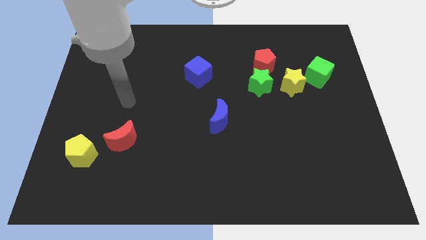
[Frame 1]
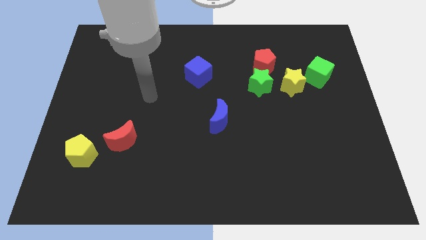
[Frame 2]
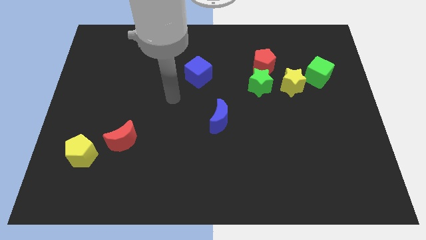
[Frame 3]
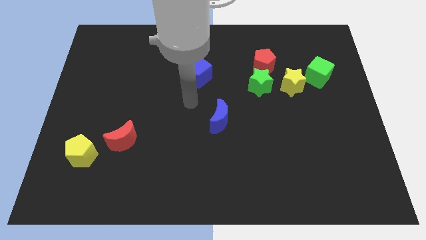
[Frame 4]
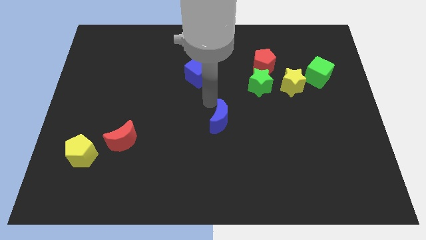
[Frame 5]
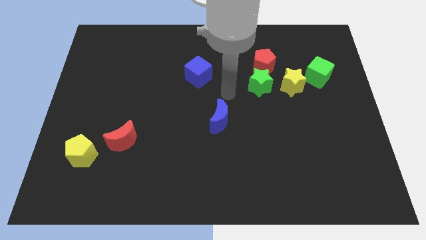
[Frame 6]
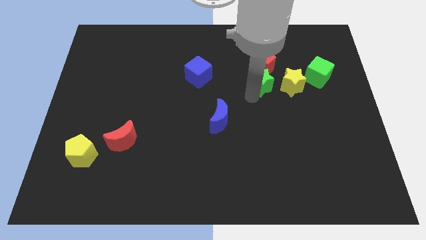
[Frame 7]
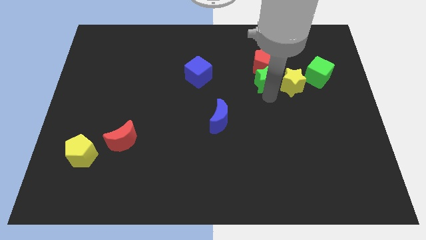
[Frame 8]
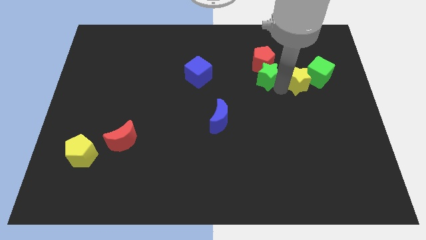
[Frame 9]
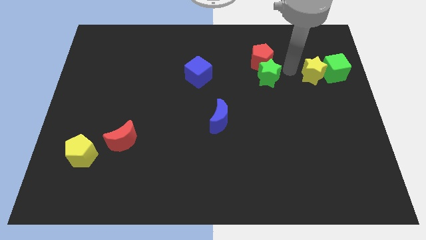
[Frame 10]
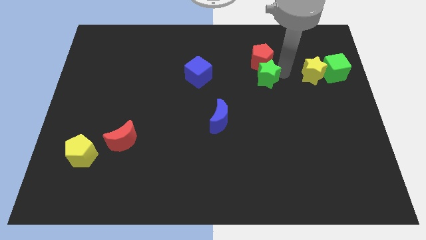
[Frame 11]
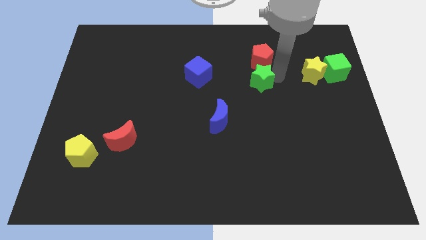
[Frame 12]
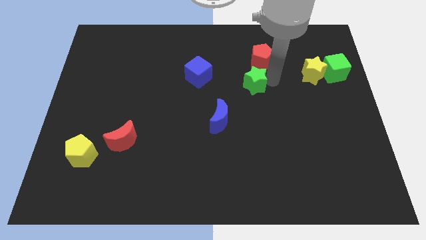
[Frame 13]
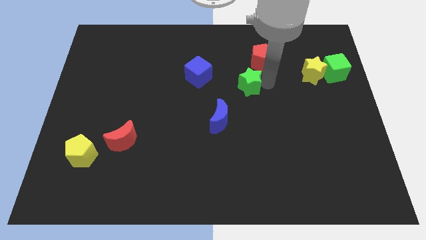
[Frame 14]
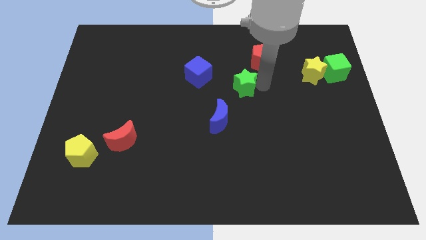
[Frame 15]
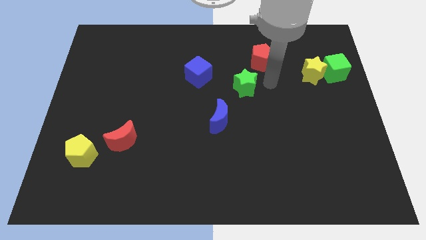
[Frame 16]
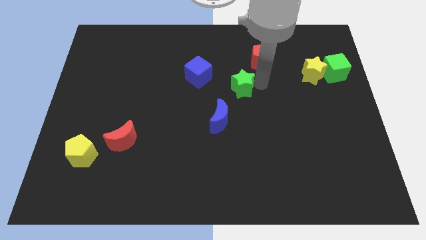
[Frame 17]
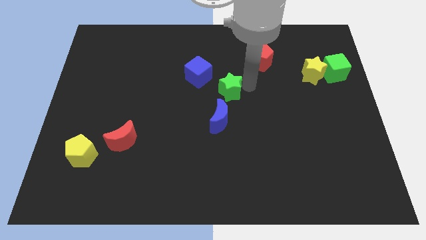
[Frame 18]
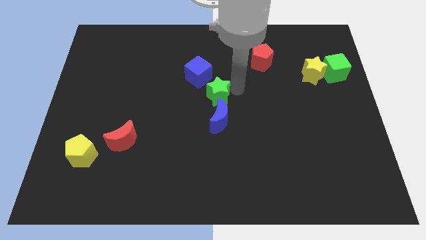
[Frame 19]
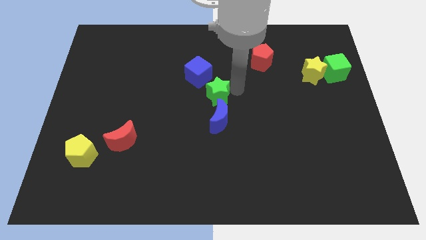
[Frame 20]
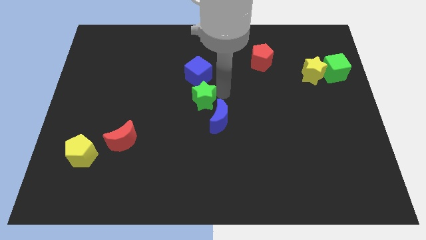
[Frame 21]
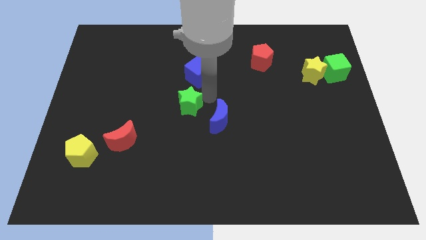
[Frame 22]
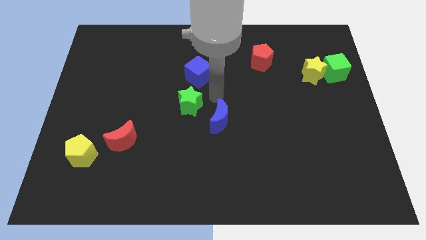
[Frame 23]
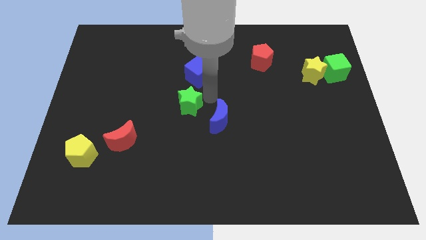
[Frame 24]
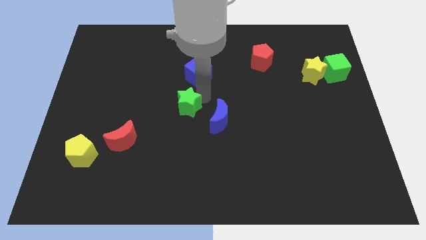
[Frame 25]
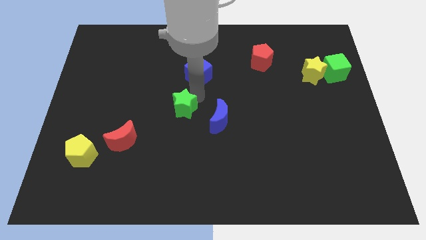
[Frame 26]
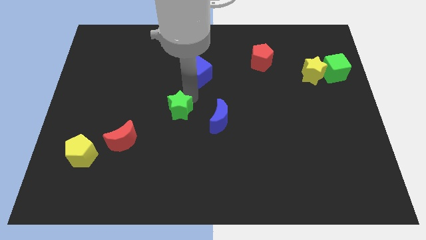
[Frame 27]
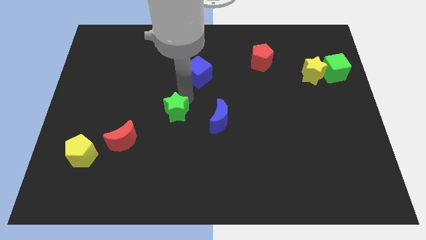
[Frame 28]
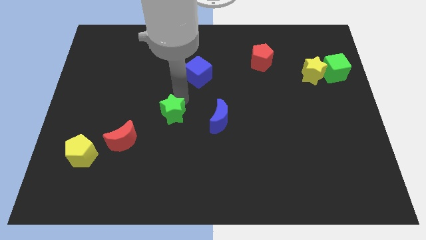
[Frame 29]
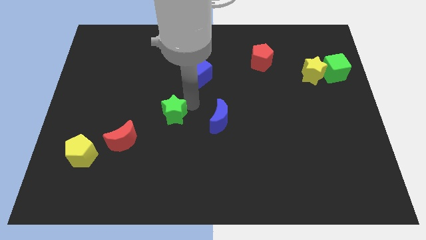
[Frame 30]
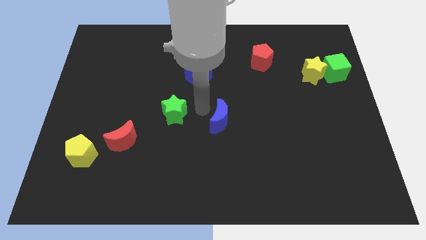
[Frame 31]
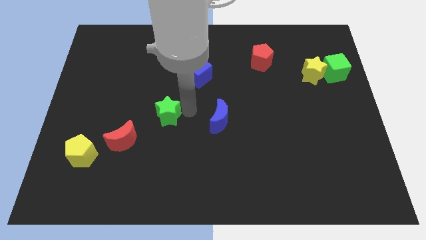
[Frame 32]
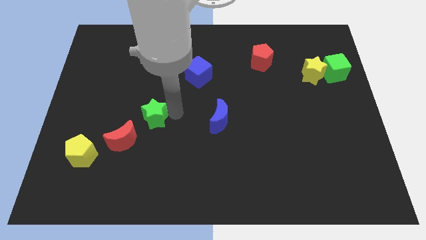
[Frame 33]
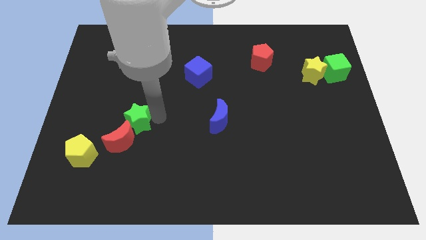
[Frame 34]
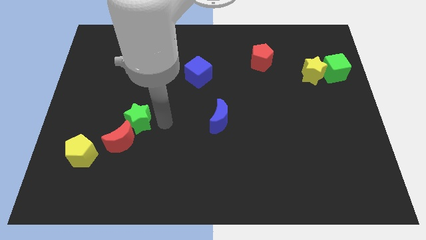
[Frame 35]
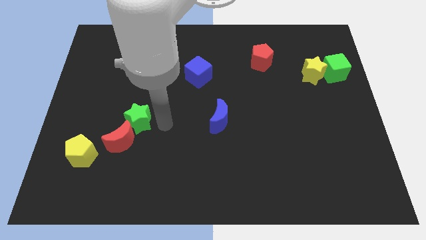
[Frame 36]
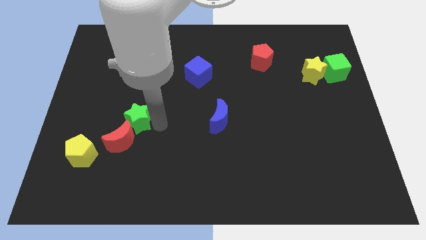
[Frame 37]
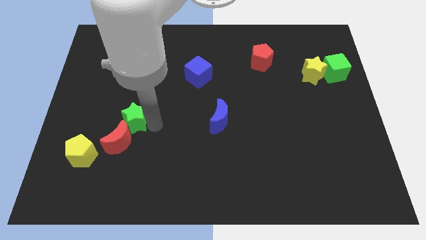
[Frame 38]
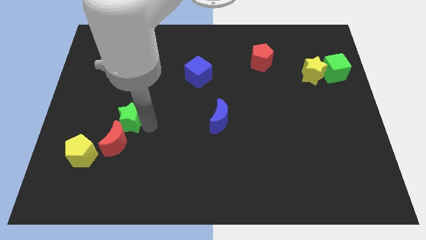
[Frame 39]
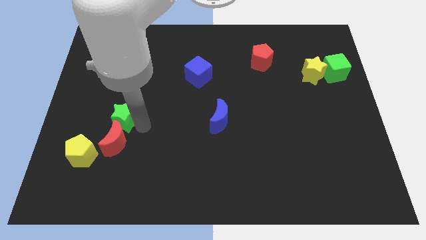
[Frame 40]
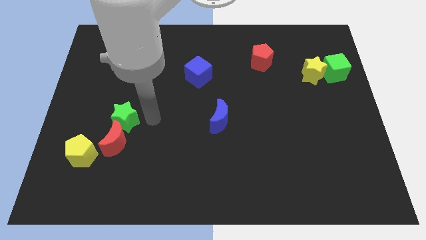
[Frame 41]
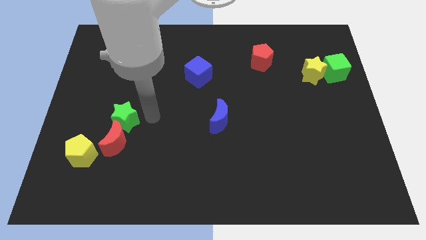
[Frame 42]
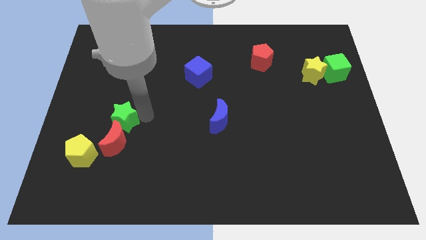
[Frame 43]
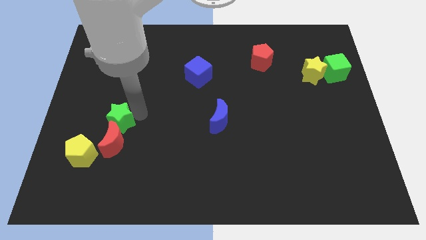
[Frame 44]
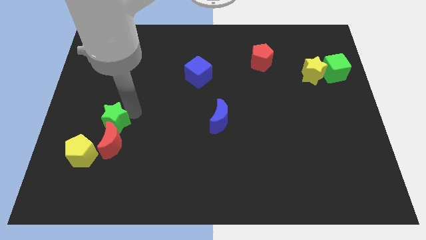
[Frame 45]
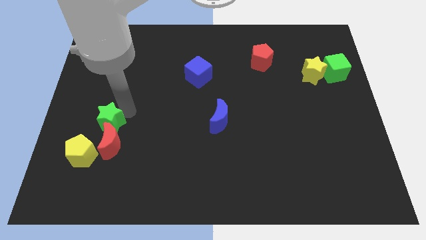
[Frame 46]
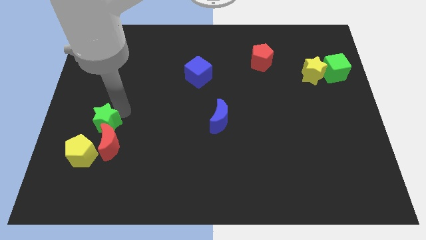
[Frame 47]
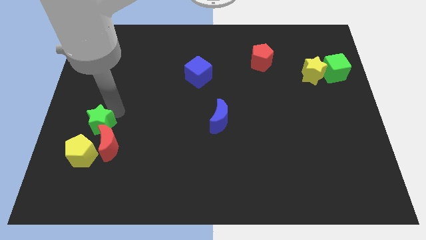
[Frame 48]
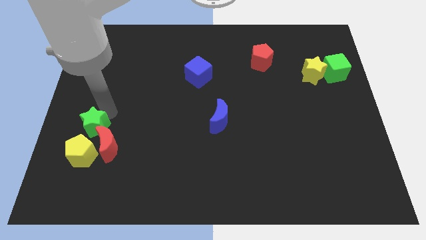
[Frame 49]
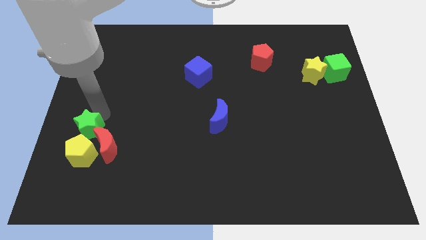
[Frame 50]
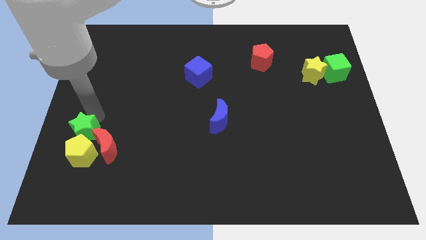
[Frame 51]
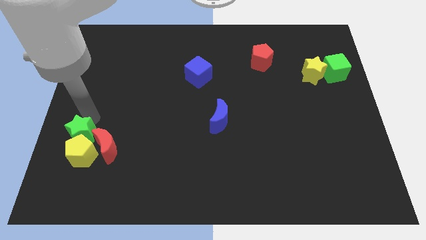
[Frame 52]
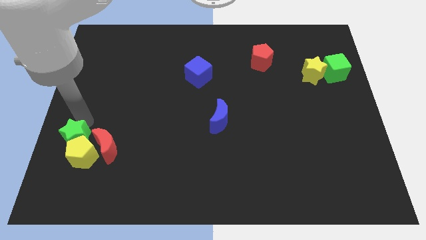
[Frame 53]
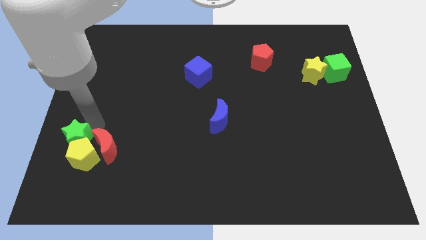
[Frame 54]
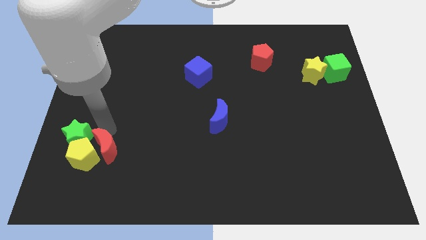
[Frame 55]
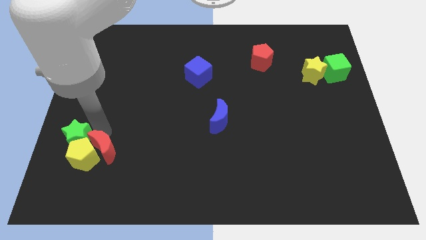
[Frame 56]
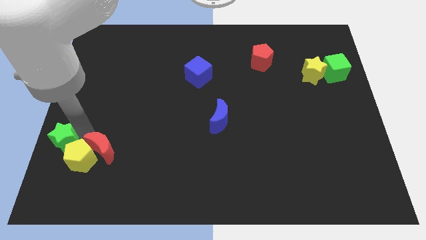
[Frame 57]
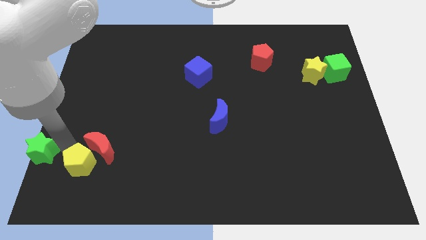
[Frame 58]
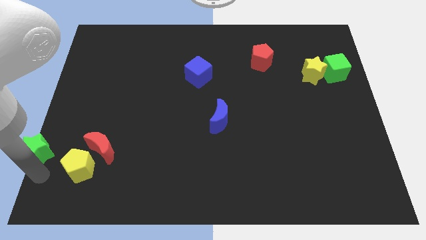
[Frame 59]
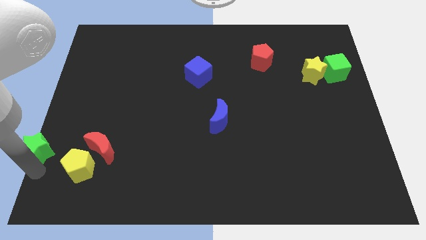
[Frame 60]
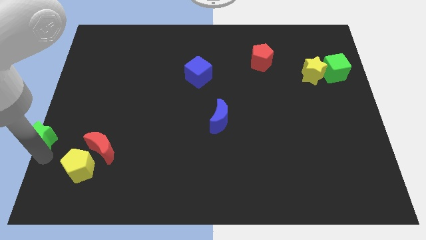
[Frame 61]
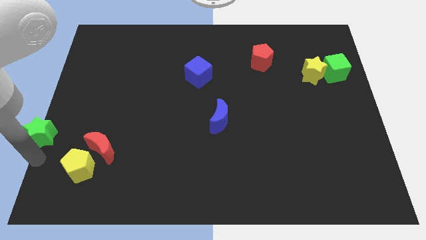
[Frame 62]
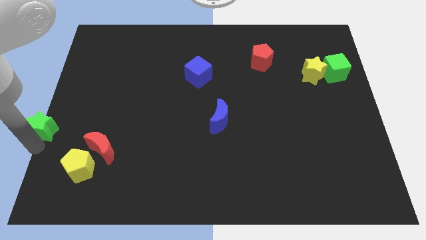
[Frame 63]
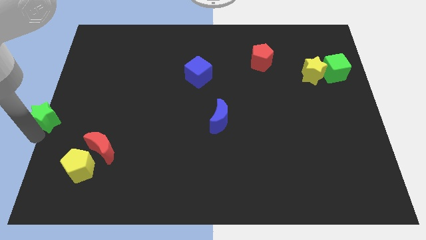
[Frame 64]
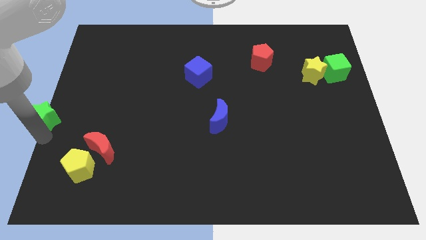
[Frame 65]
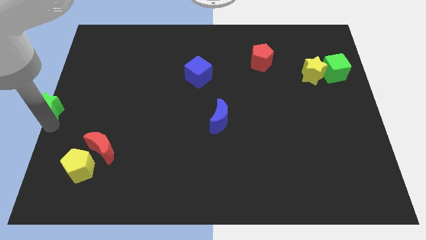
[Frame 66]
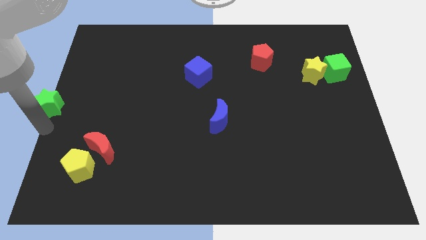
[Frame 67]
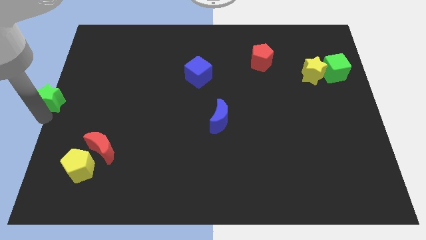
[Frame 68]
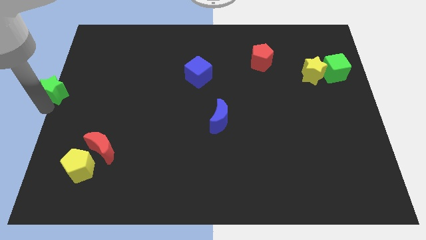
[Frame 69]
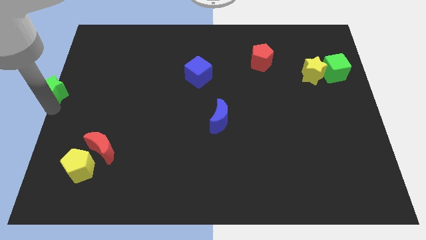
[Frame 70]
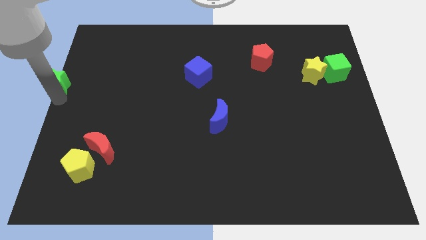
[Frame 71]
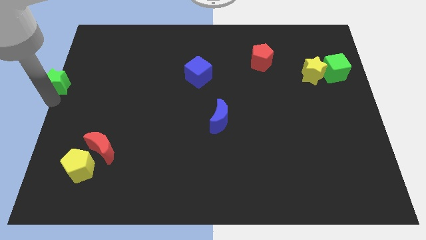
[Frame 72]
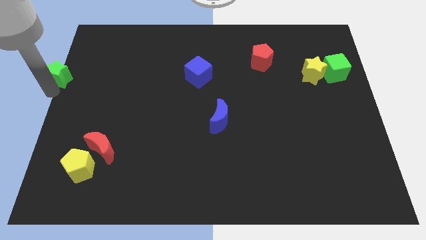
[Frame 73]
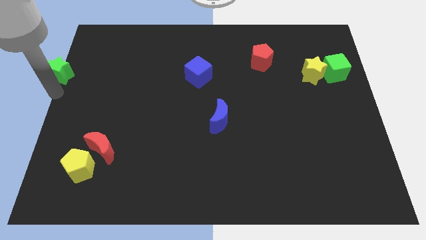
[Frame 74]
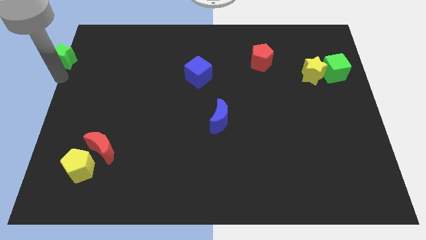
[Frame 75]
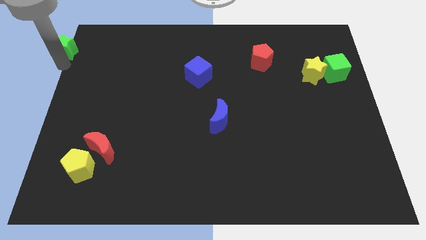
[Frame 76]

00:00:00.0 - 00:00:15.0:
move the green star to the upper left corner
